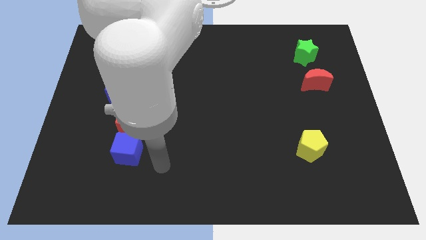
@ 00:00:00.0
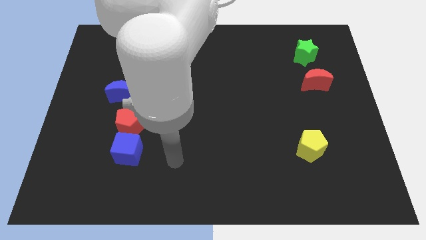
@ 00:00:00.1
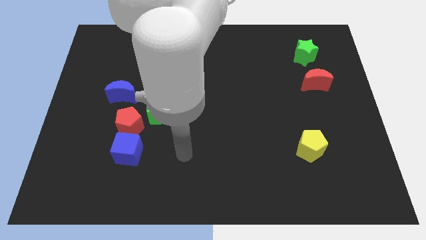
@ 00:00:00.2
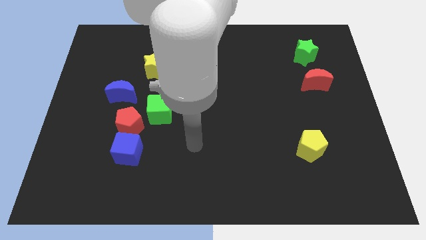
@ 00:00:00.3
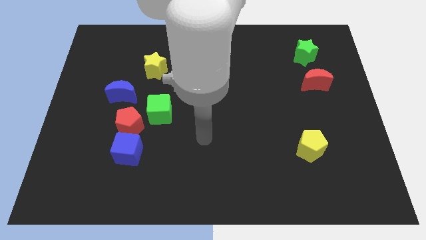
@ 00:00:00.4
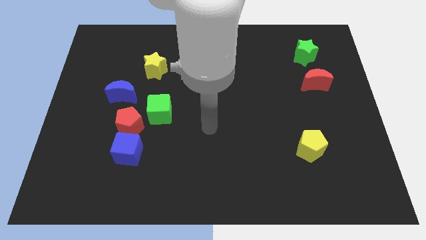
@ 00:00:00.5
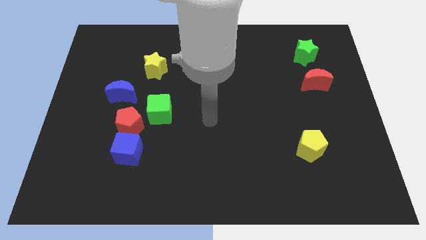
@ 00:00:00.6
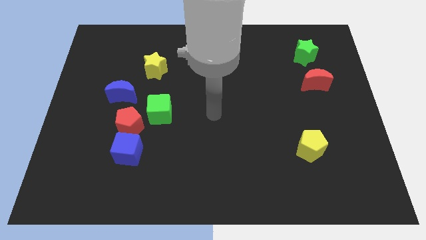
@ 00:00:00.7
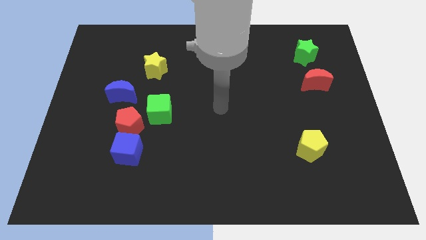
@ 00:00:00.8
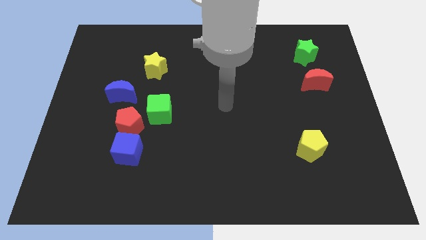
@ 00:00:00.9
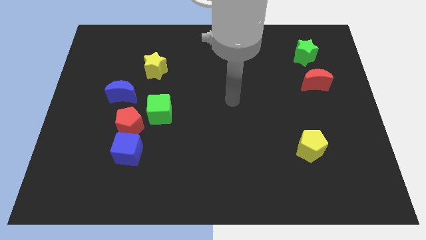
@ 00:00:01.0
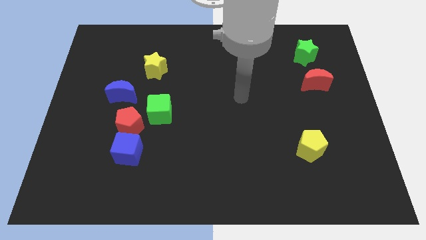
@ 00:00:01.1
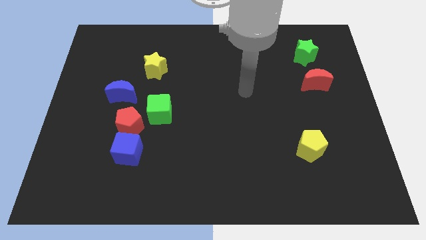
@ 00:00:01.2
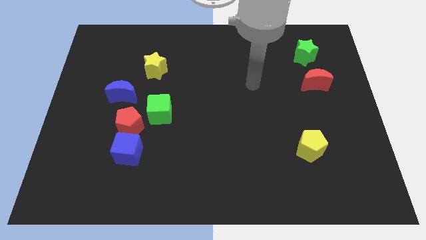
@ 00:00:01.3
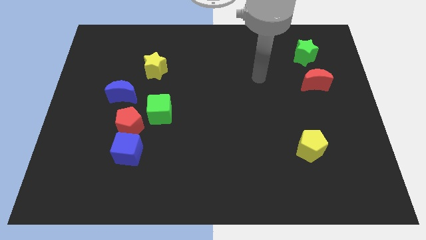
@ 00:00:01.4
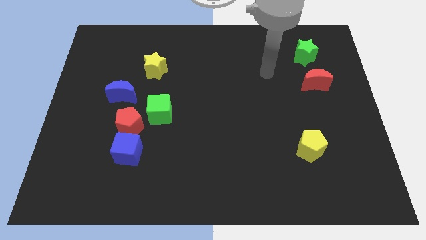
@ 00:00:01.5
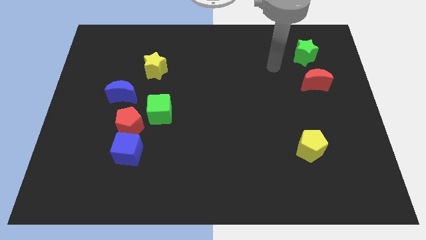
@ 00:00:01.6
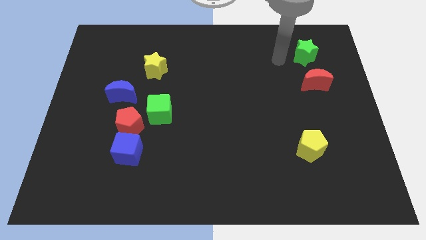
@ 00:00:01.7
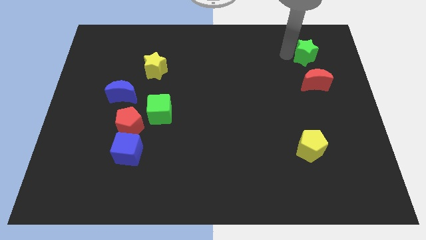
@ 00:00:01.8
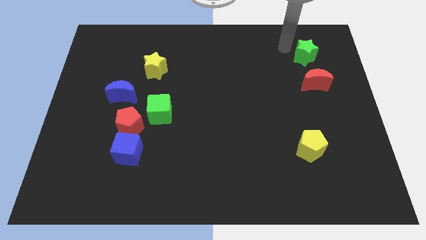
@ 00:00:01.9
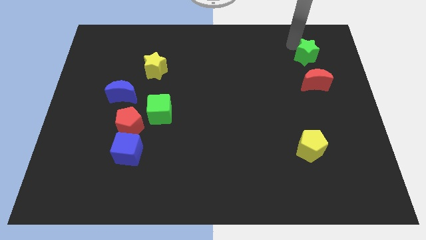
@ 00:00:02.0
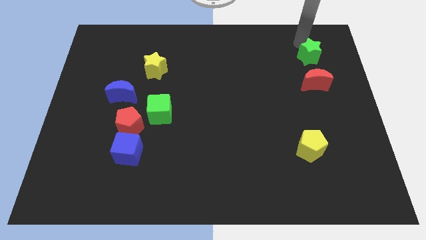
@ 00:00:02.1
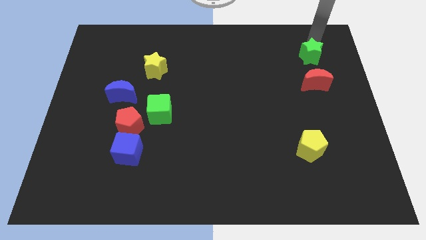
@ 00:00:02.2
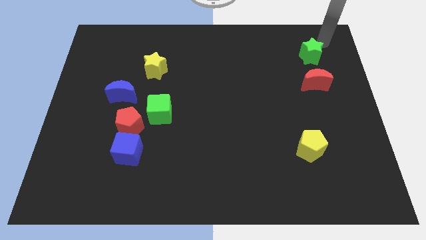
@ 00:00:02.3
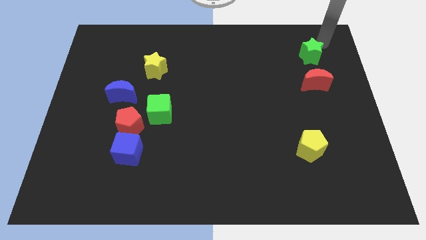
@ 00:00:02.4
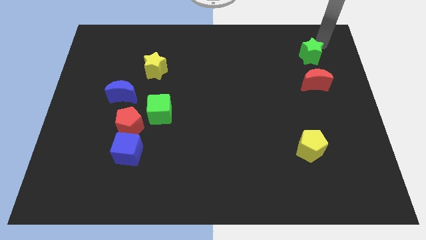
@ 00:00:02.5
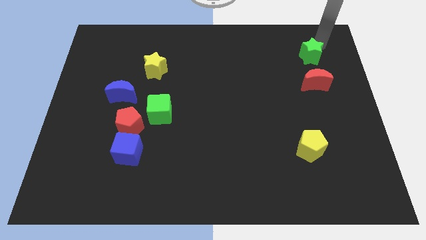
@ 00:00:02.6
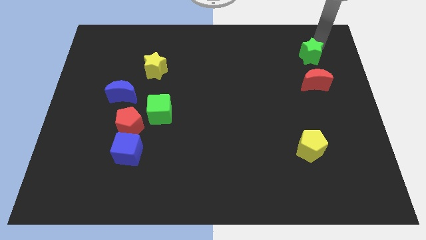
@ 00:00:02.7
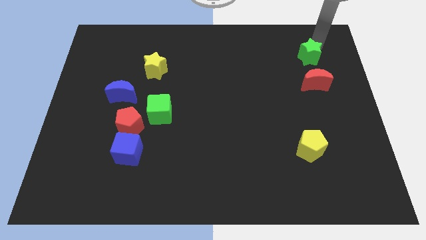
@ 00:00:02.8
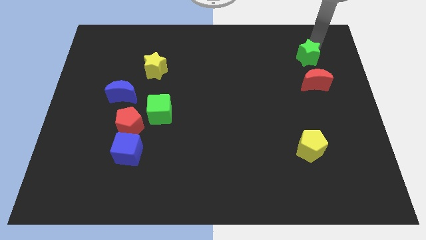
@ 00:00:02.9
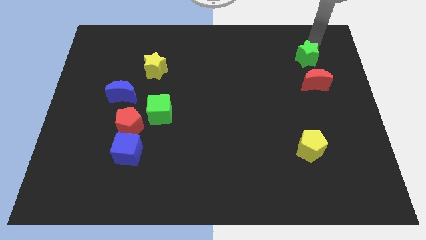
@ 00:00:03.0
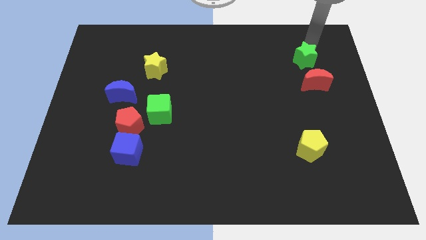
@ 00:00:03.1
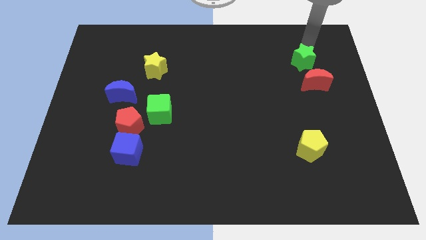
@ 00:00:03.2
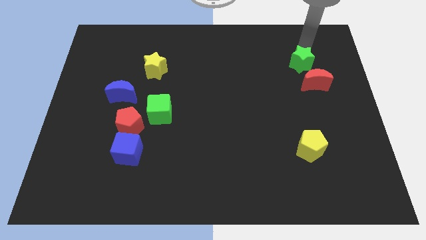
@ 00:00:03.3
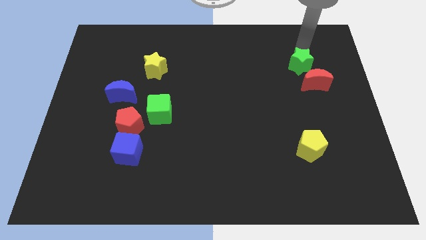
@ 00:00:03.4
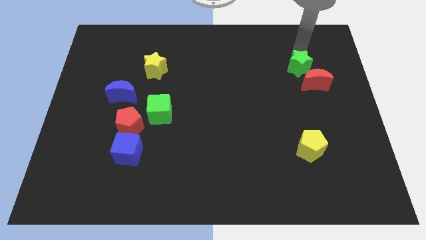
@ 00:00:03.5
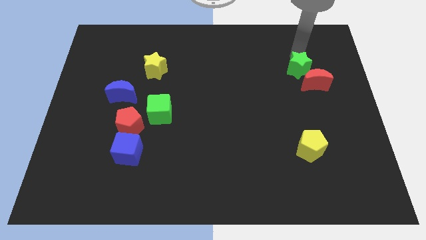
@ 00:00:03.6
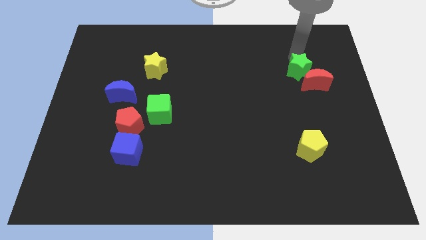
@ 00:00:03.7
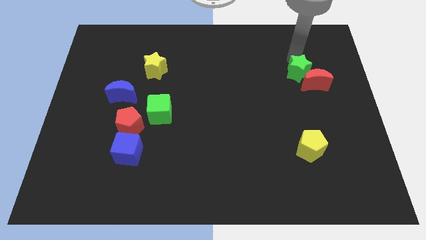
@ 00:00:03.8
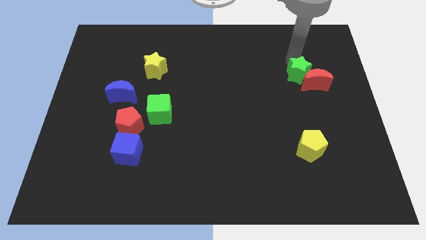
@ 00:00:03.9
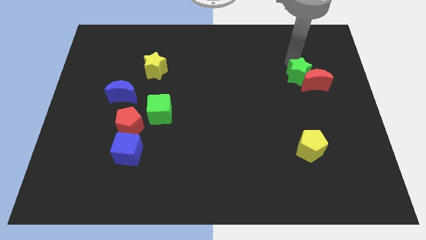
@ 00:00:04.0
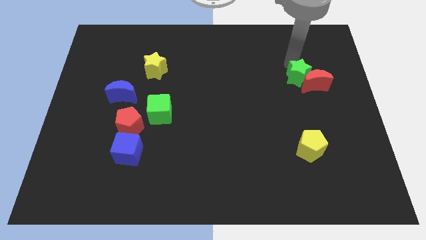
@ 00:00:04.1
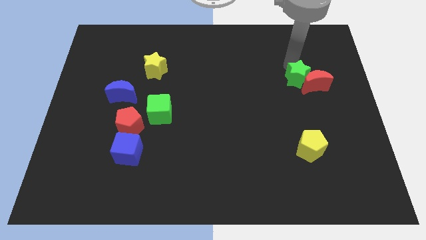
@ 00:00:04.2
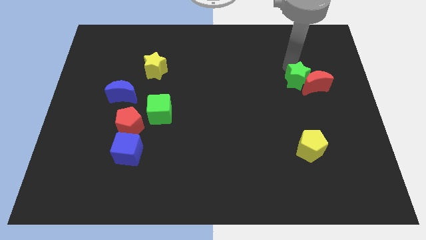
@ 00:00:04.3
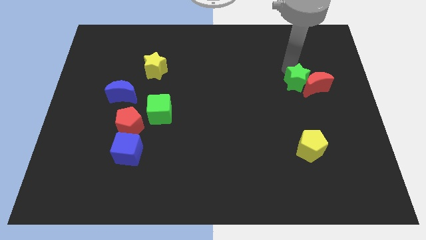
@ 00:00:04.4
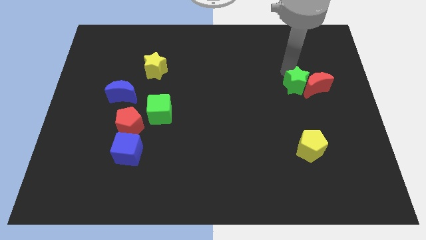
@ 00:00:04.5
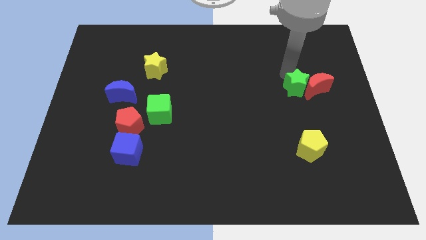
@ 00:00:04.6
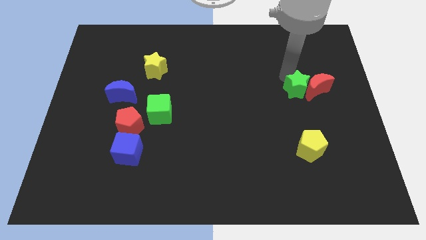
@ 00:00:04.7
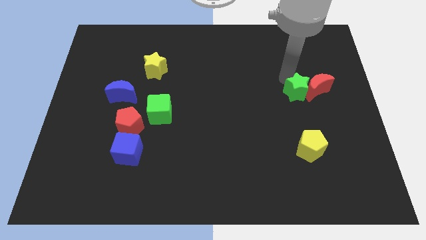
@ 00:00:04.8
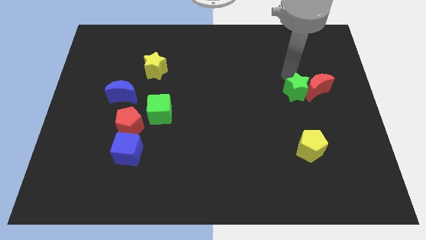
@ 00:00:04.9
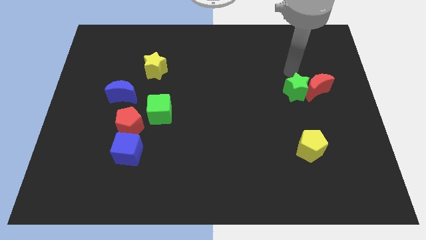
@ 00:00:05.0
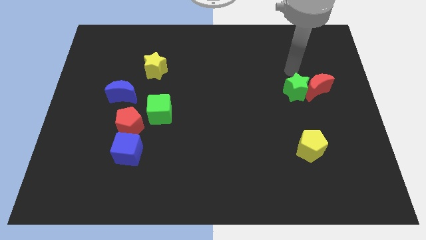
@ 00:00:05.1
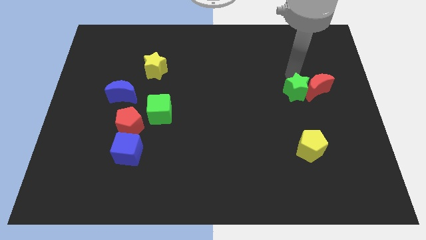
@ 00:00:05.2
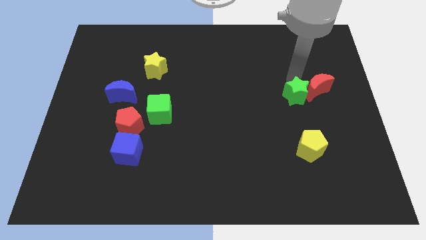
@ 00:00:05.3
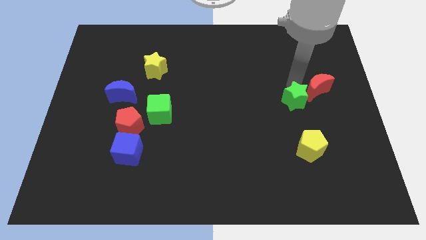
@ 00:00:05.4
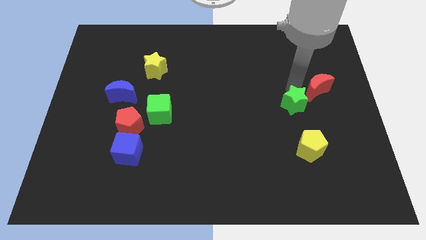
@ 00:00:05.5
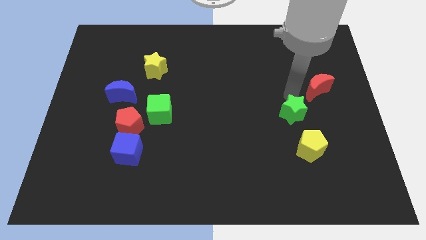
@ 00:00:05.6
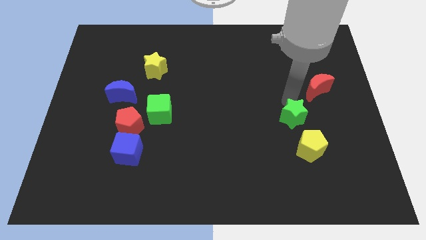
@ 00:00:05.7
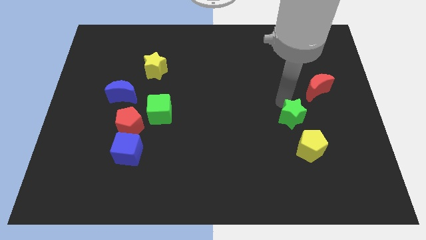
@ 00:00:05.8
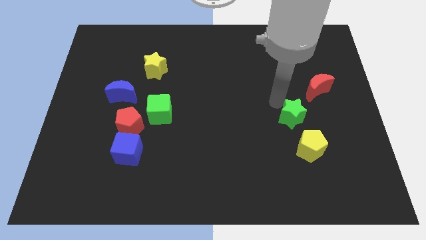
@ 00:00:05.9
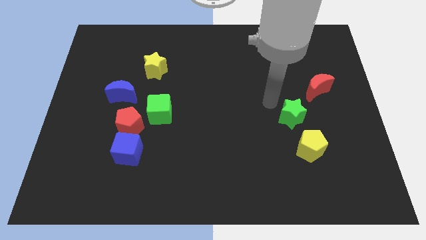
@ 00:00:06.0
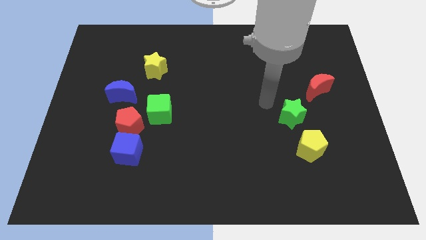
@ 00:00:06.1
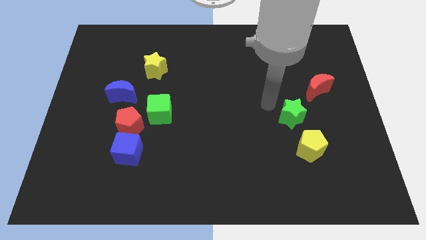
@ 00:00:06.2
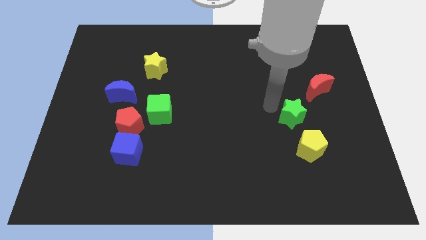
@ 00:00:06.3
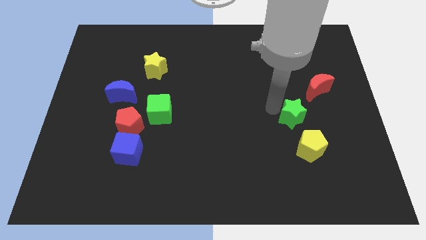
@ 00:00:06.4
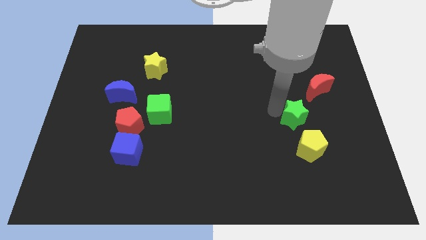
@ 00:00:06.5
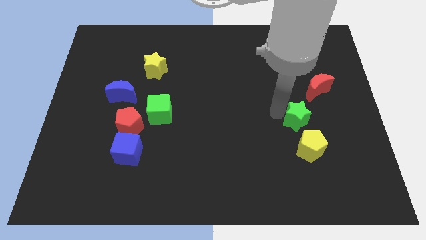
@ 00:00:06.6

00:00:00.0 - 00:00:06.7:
slide the green star down

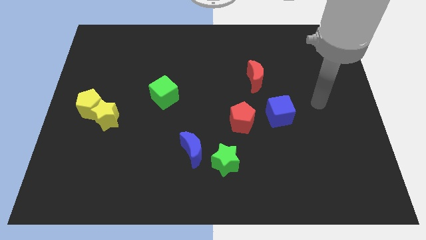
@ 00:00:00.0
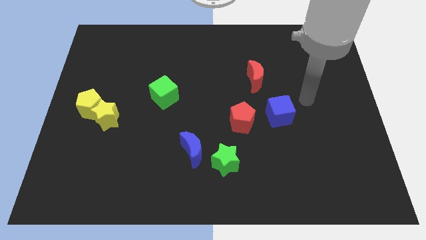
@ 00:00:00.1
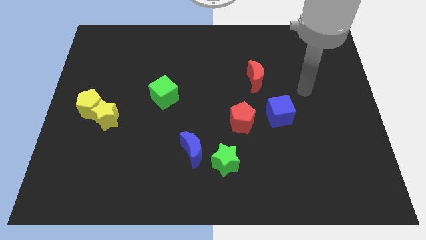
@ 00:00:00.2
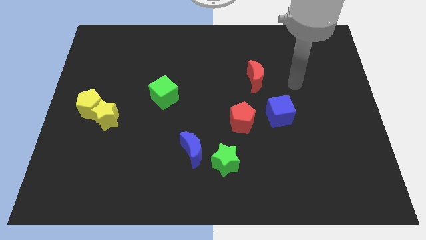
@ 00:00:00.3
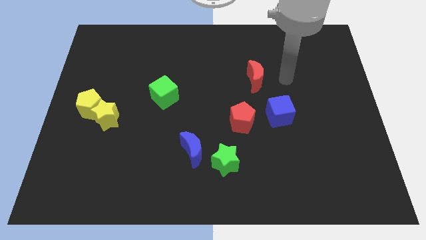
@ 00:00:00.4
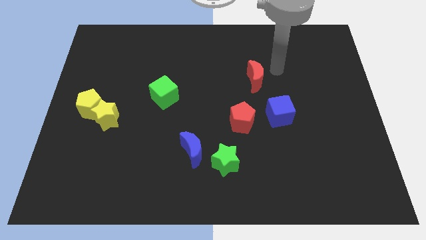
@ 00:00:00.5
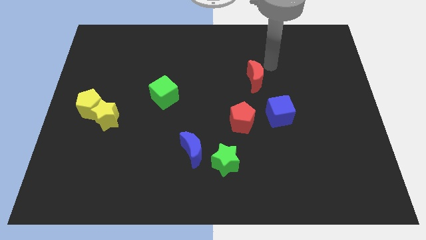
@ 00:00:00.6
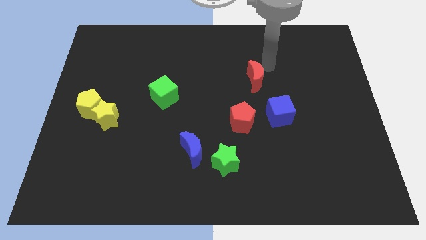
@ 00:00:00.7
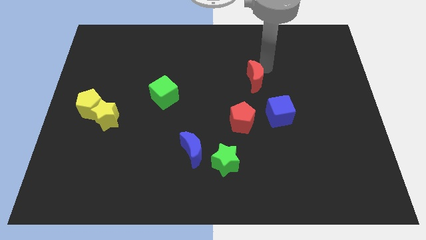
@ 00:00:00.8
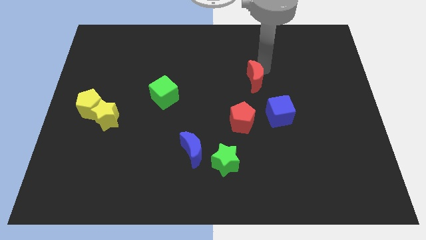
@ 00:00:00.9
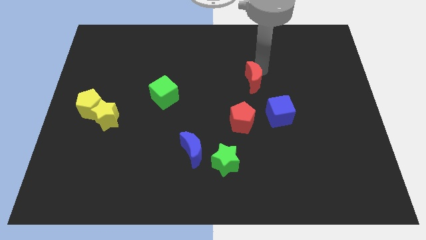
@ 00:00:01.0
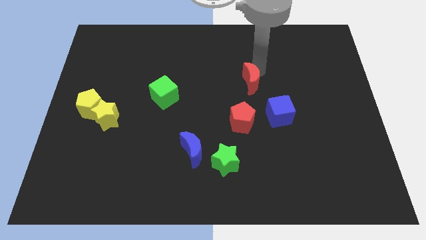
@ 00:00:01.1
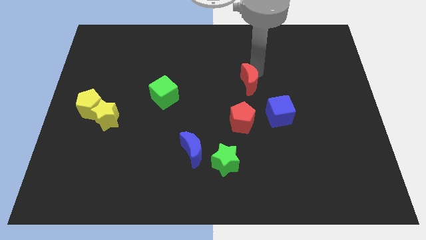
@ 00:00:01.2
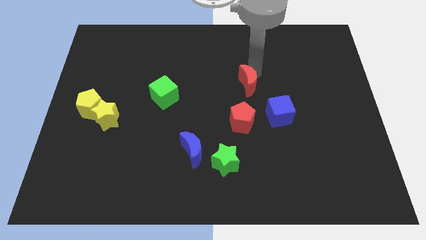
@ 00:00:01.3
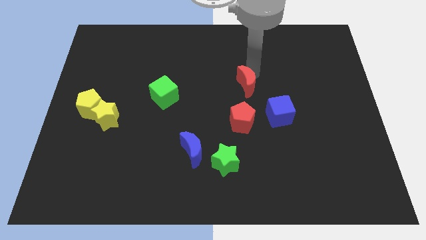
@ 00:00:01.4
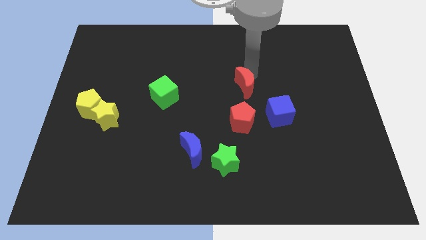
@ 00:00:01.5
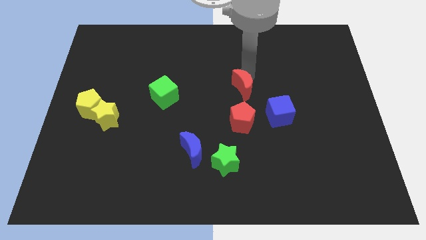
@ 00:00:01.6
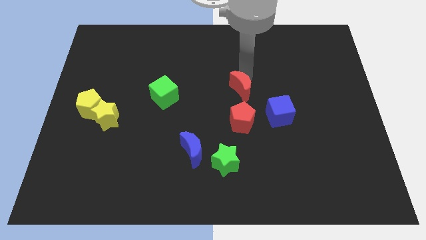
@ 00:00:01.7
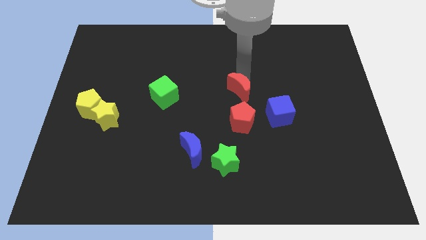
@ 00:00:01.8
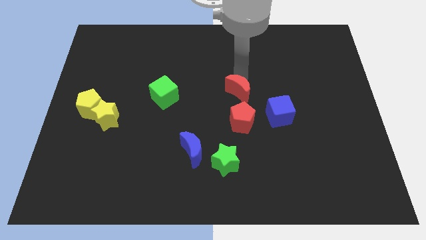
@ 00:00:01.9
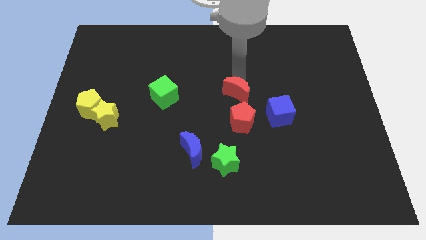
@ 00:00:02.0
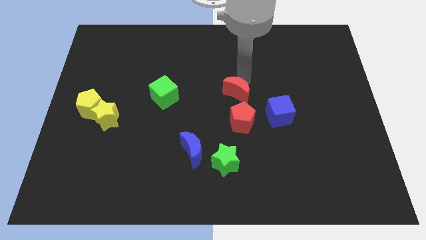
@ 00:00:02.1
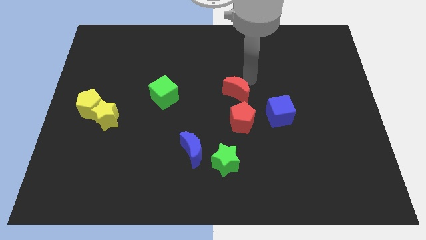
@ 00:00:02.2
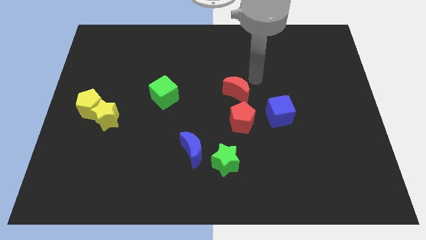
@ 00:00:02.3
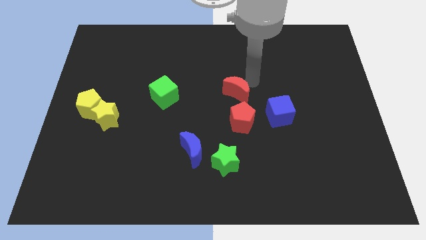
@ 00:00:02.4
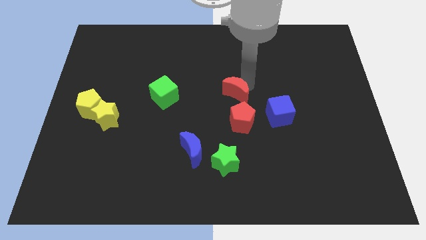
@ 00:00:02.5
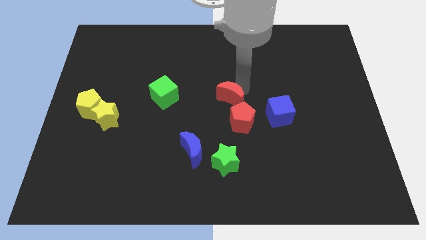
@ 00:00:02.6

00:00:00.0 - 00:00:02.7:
slide the red moon diagonally down and to the left a little bit
